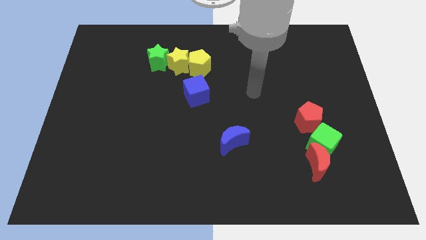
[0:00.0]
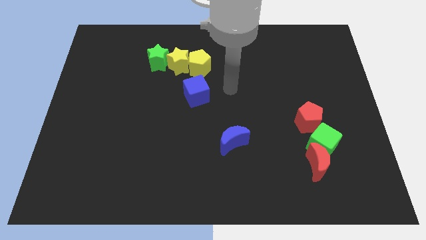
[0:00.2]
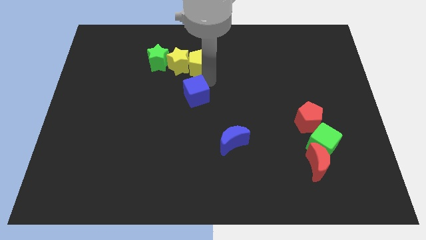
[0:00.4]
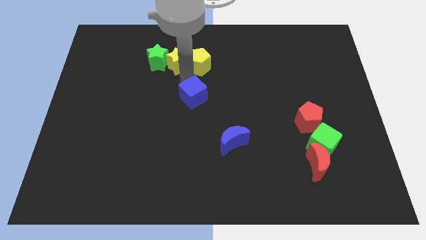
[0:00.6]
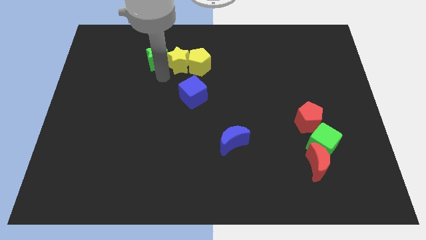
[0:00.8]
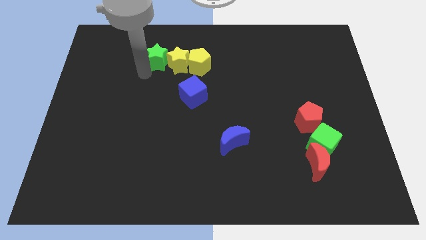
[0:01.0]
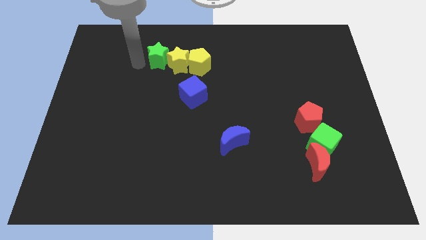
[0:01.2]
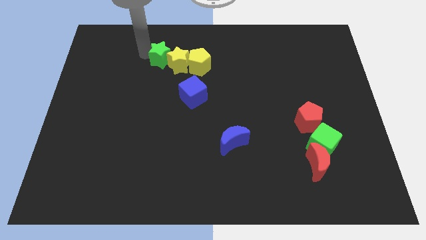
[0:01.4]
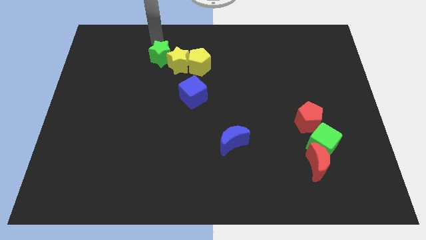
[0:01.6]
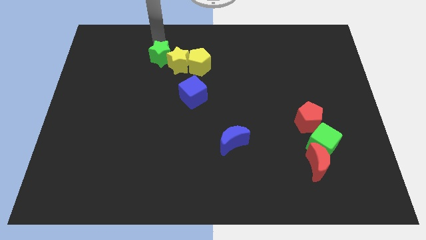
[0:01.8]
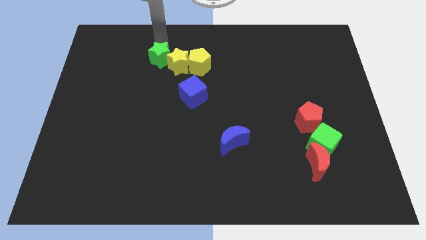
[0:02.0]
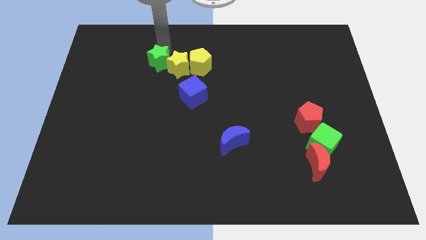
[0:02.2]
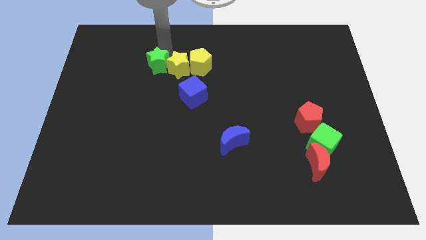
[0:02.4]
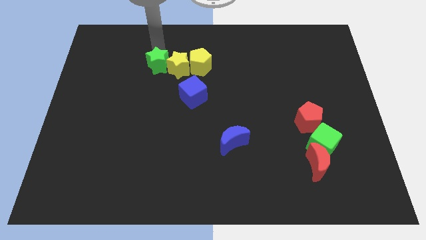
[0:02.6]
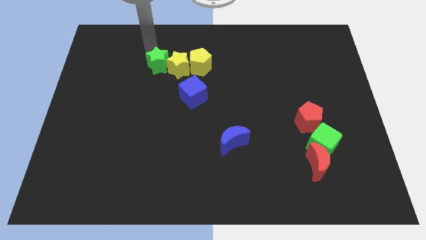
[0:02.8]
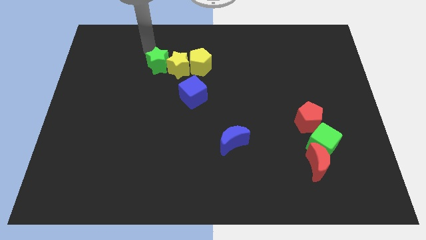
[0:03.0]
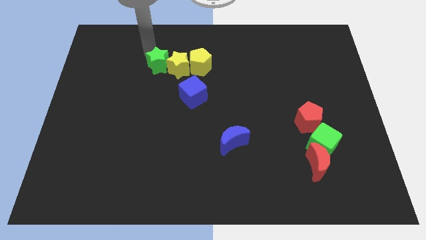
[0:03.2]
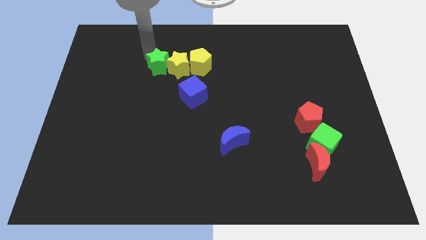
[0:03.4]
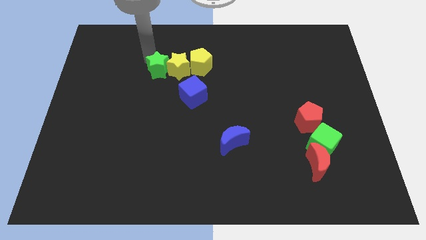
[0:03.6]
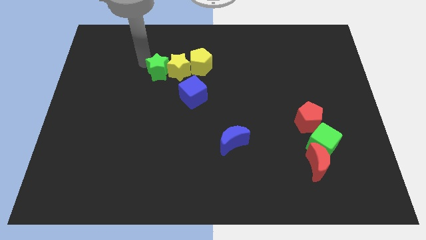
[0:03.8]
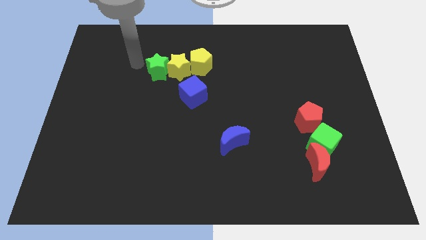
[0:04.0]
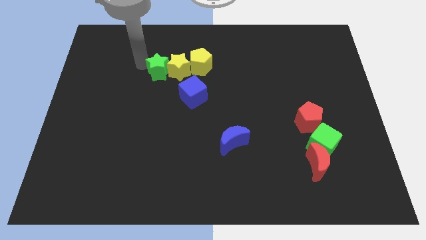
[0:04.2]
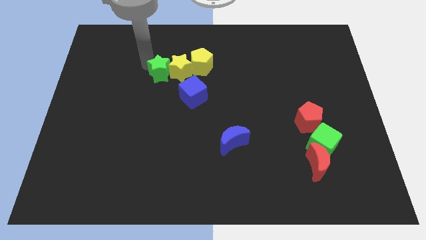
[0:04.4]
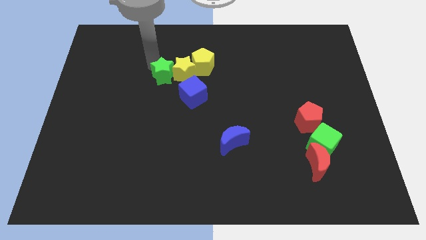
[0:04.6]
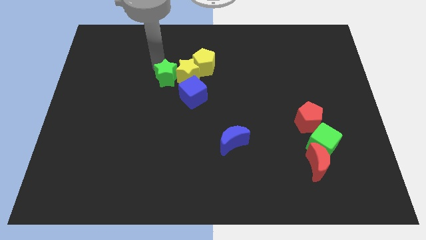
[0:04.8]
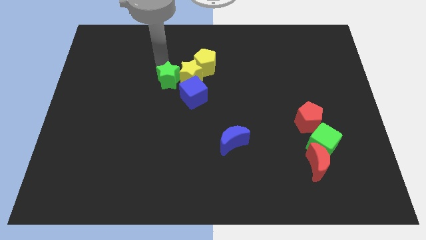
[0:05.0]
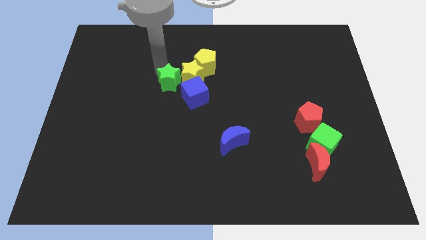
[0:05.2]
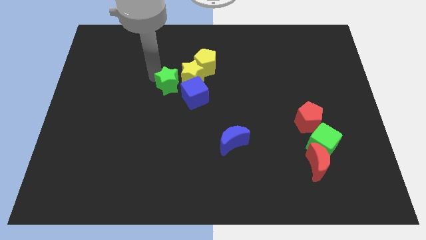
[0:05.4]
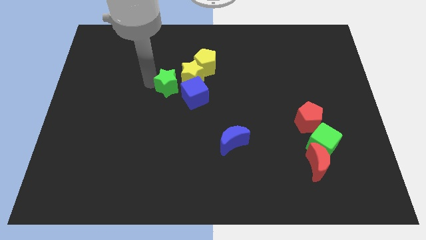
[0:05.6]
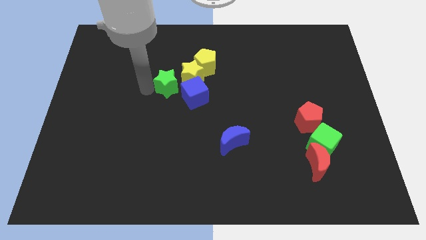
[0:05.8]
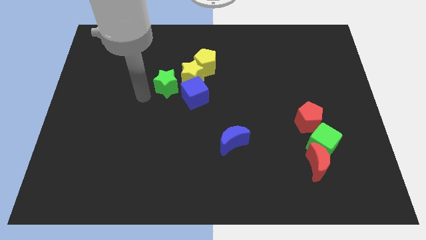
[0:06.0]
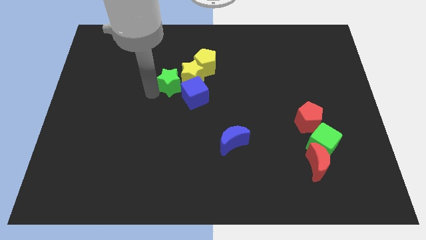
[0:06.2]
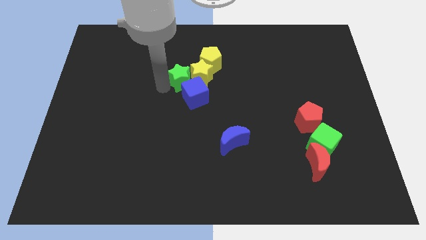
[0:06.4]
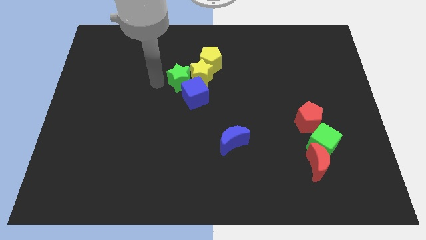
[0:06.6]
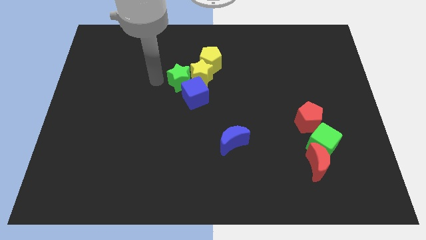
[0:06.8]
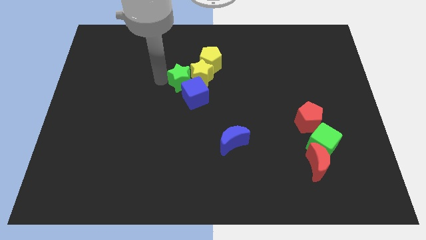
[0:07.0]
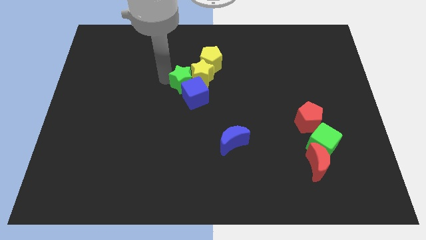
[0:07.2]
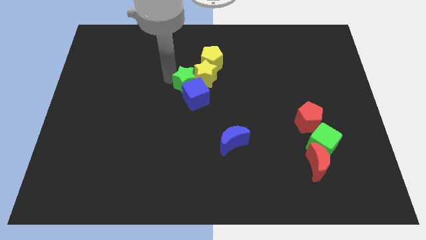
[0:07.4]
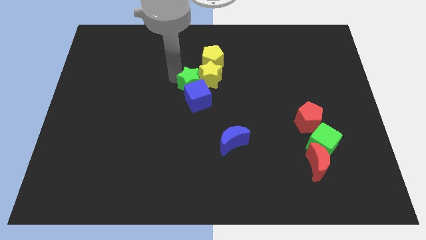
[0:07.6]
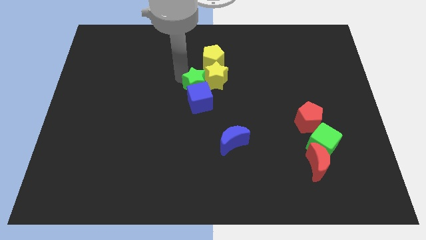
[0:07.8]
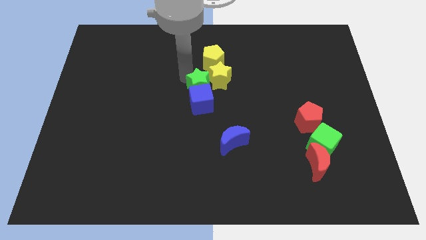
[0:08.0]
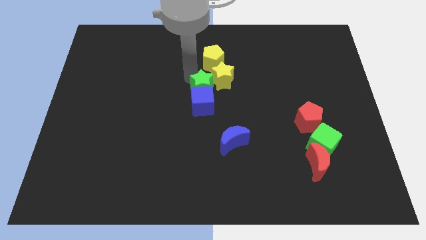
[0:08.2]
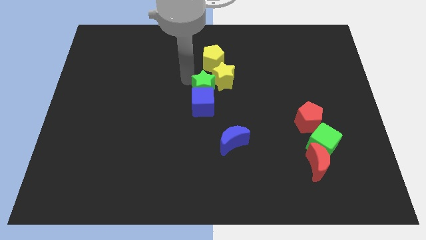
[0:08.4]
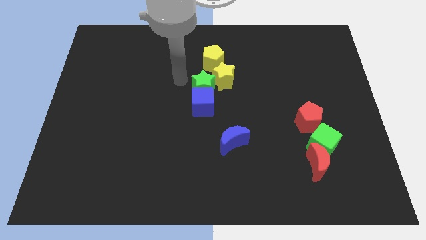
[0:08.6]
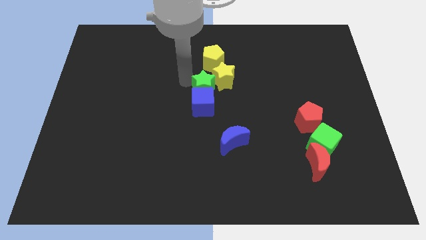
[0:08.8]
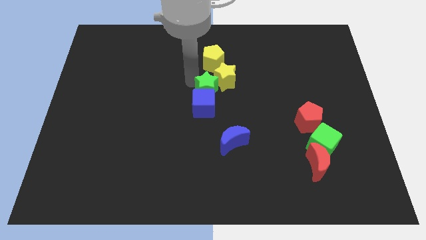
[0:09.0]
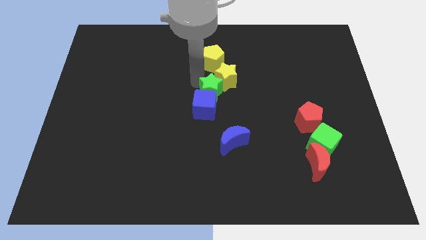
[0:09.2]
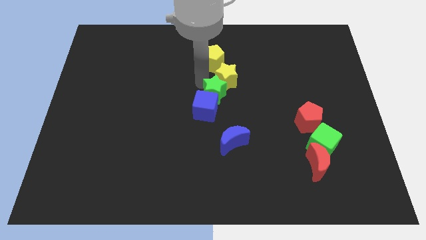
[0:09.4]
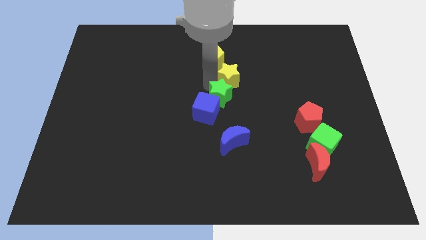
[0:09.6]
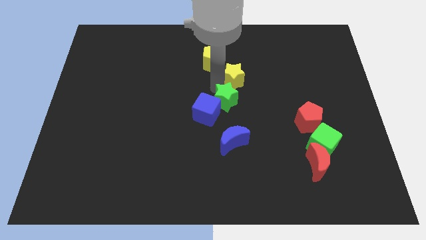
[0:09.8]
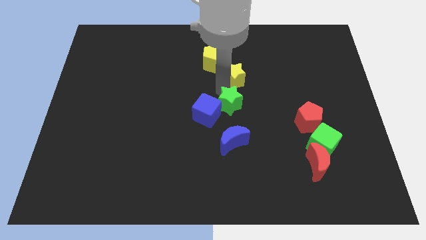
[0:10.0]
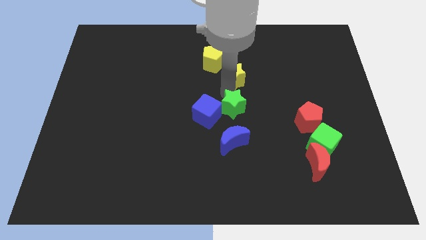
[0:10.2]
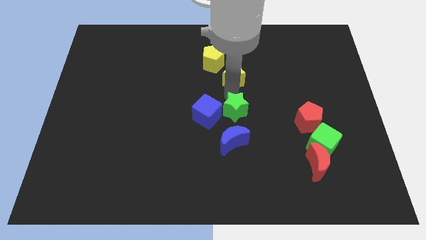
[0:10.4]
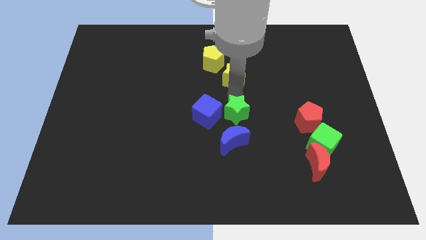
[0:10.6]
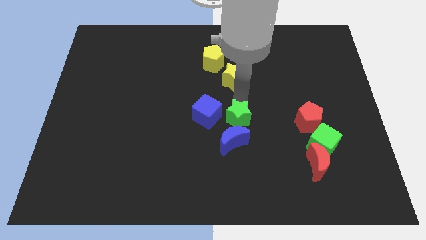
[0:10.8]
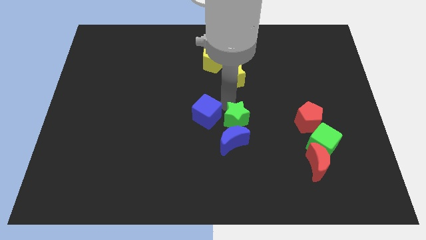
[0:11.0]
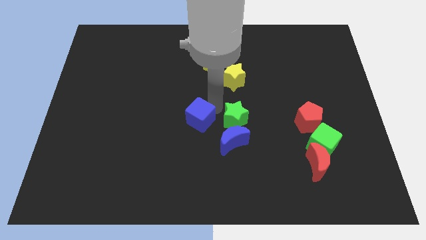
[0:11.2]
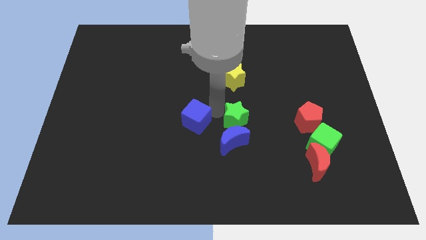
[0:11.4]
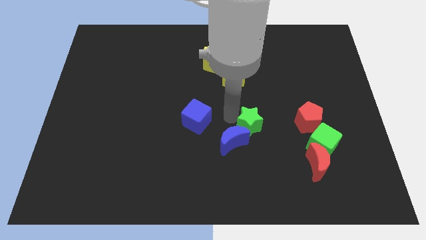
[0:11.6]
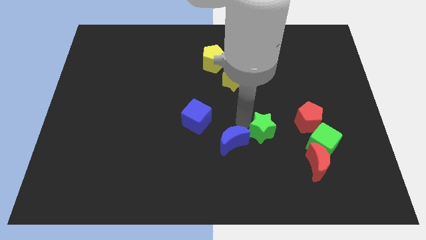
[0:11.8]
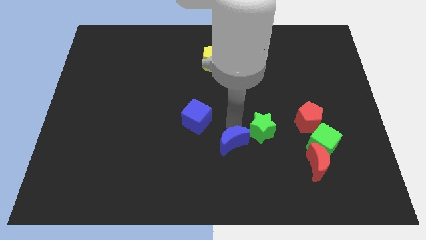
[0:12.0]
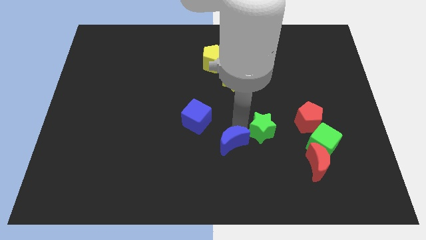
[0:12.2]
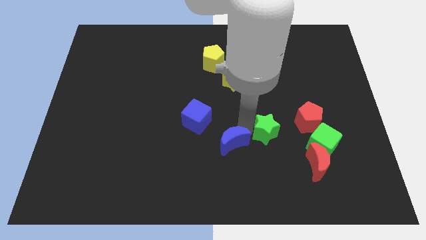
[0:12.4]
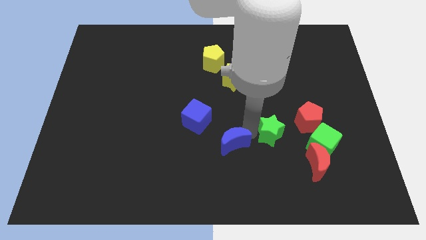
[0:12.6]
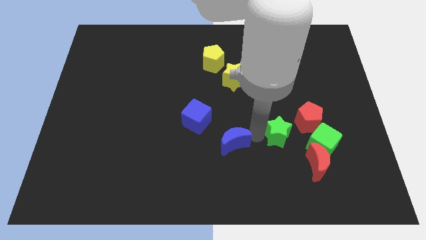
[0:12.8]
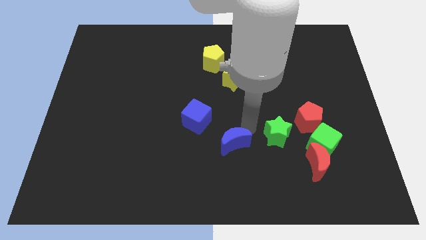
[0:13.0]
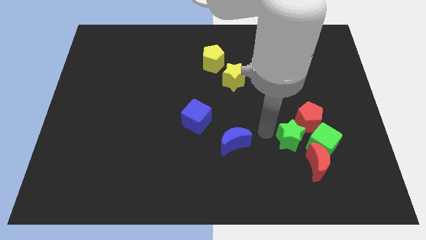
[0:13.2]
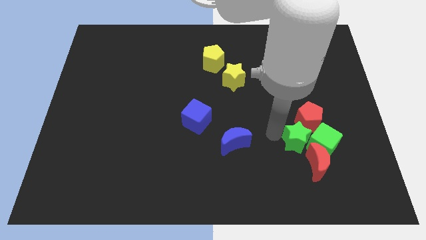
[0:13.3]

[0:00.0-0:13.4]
slide the green star to the green cube

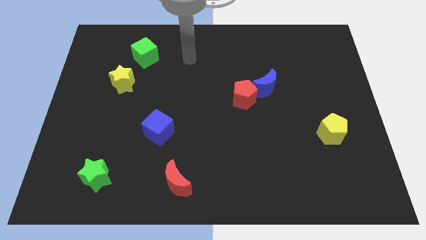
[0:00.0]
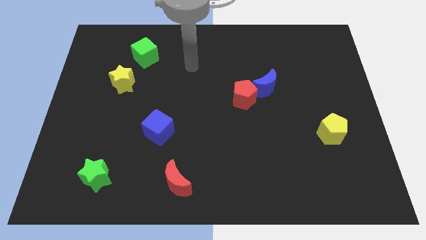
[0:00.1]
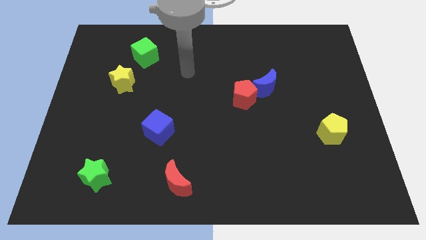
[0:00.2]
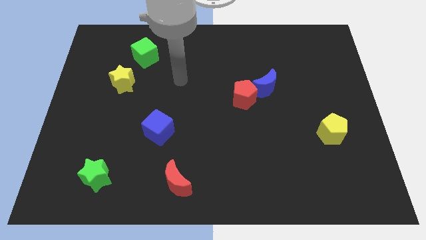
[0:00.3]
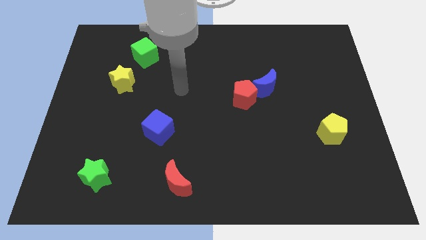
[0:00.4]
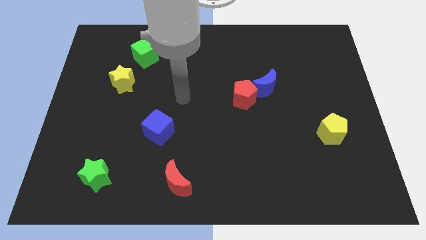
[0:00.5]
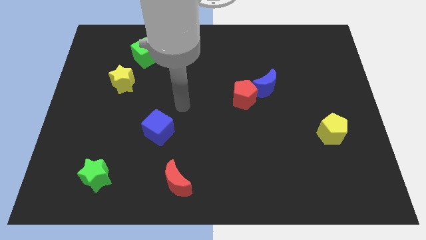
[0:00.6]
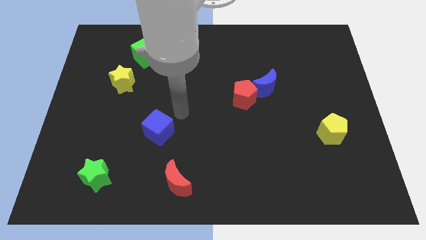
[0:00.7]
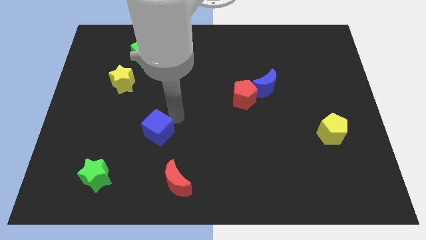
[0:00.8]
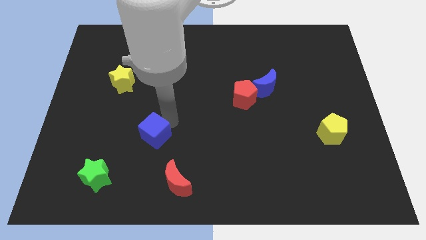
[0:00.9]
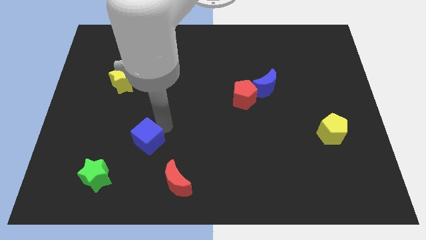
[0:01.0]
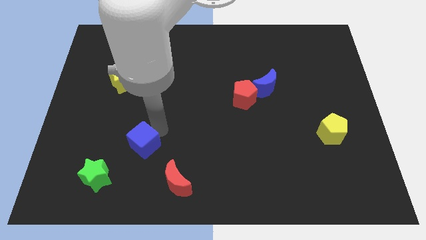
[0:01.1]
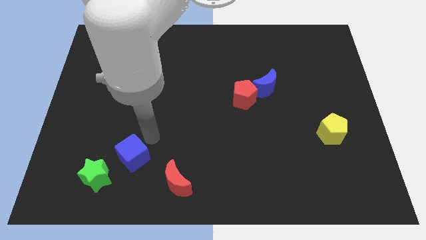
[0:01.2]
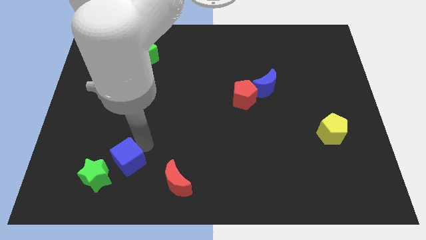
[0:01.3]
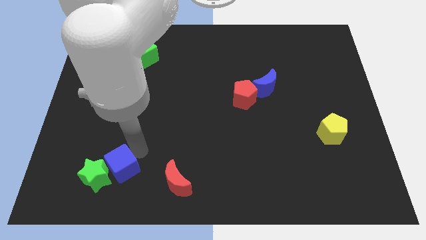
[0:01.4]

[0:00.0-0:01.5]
move the blue cube close to the green star
